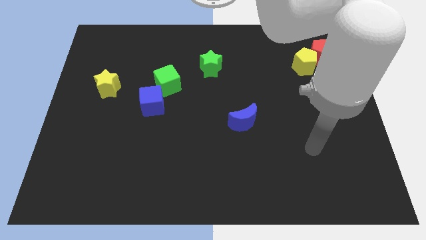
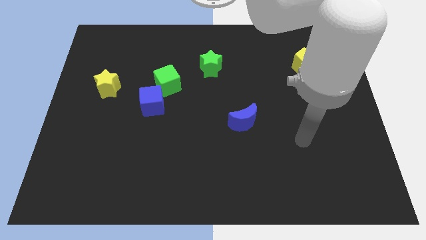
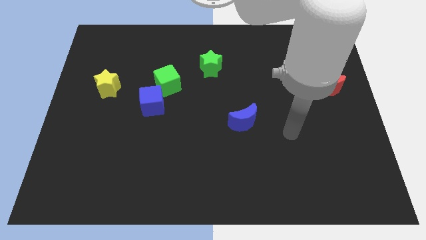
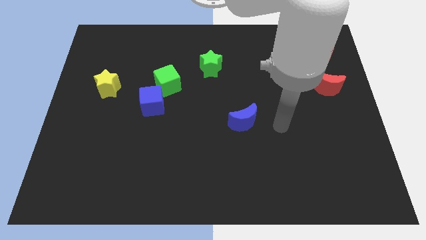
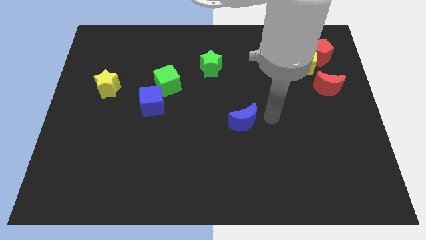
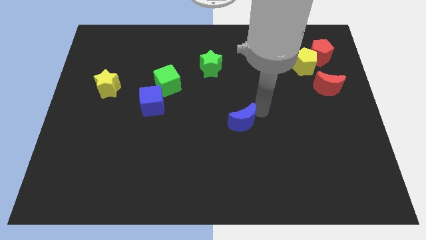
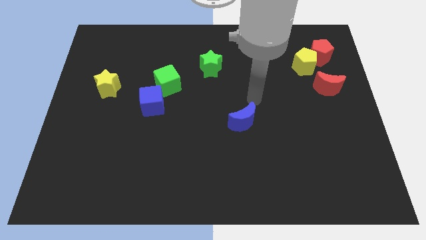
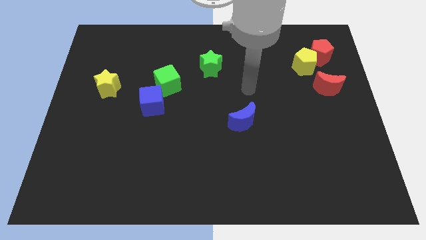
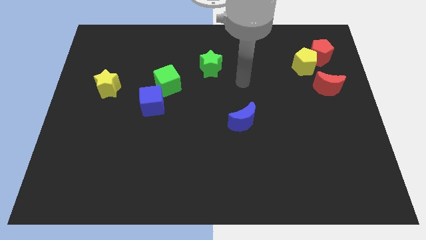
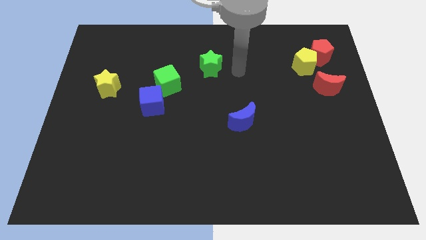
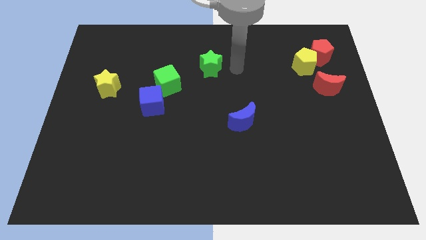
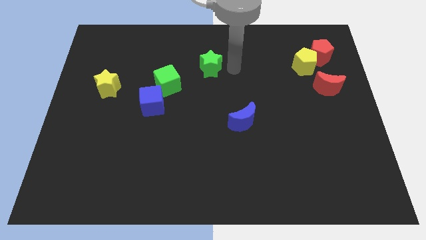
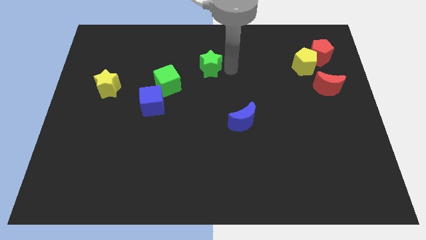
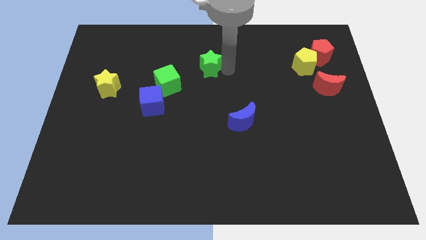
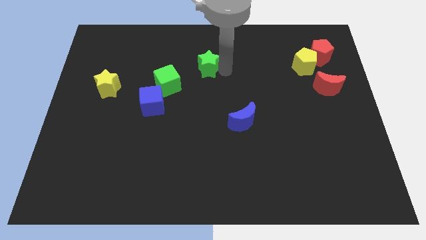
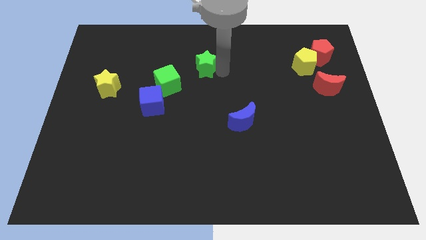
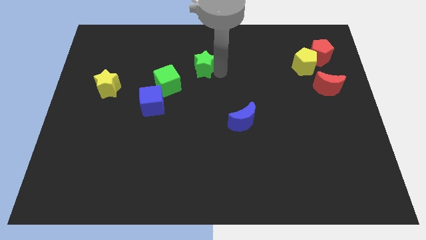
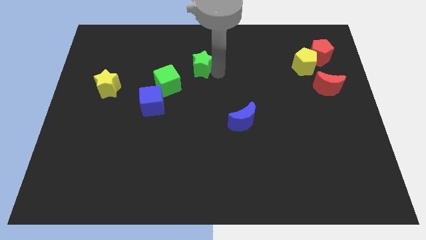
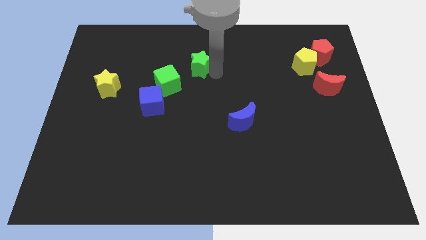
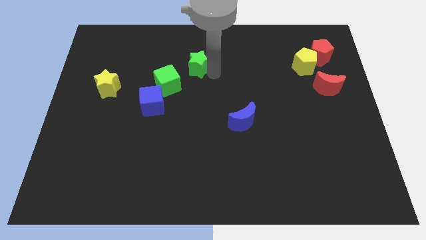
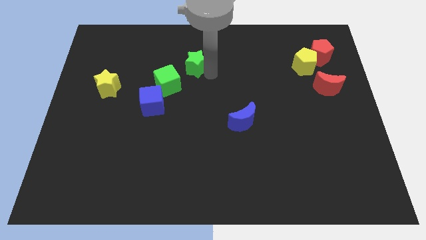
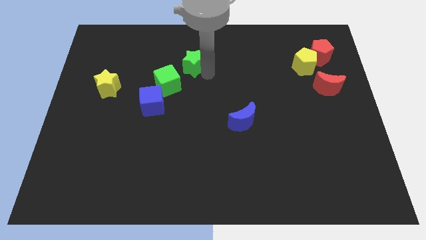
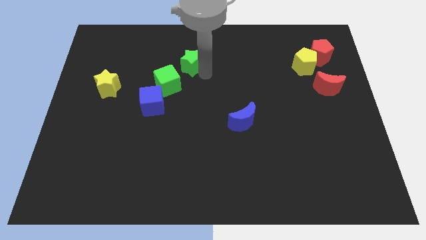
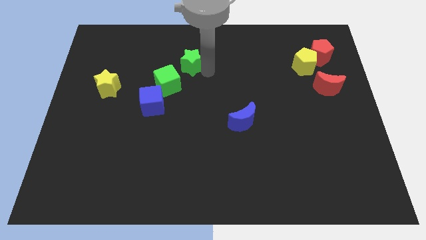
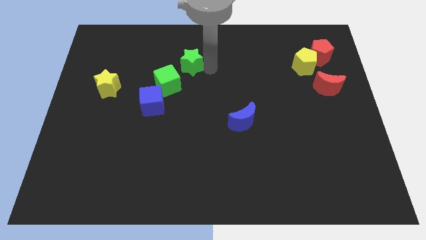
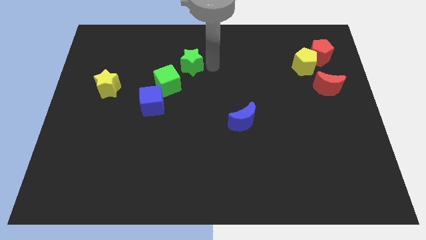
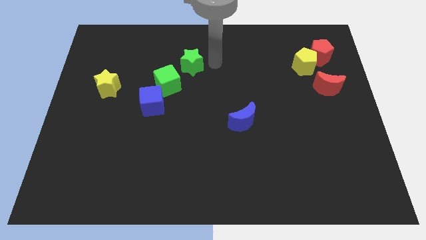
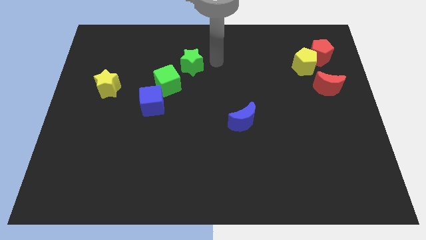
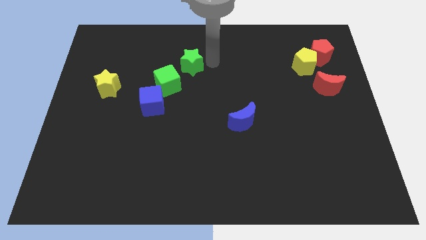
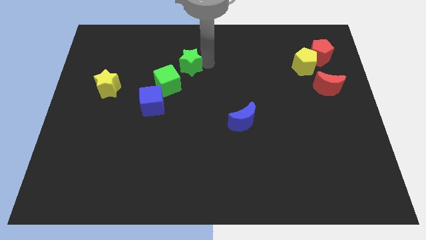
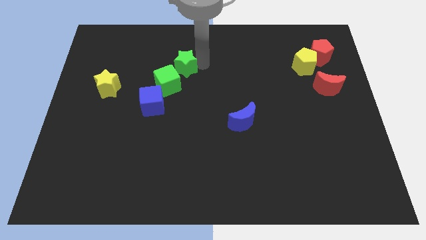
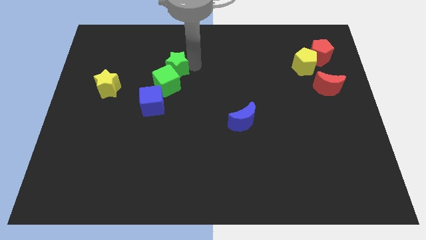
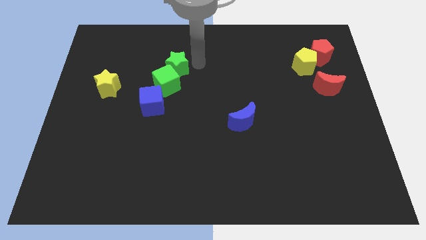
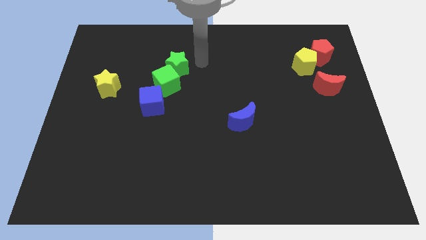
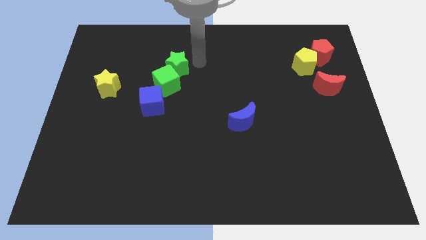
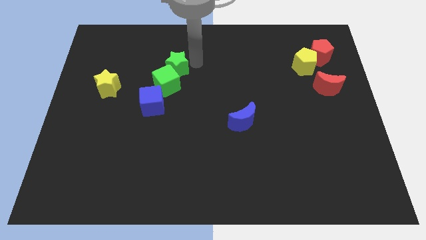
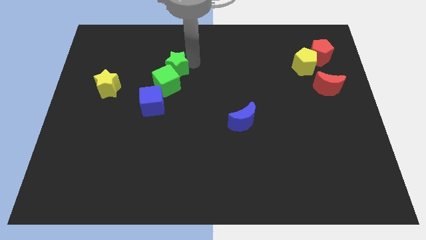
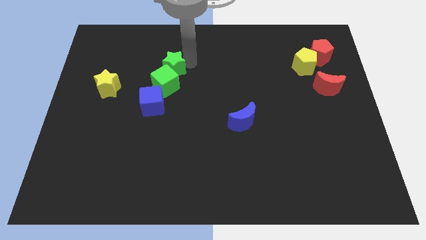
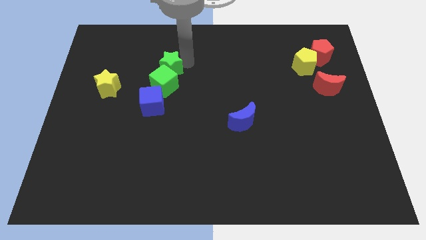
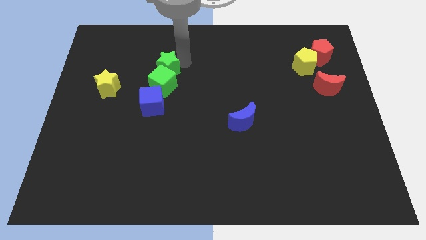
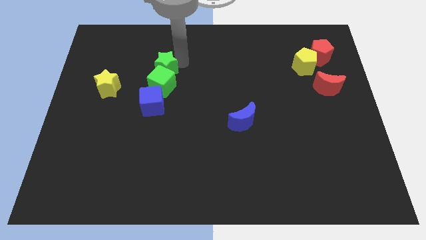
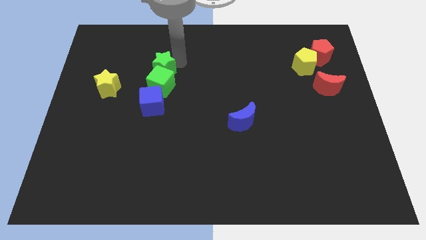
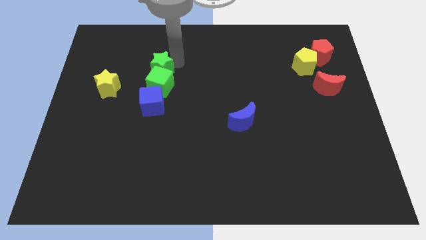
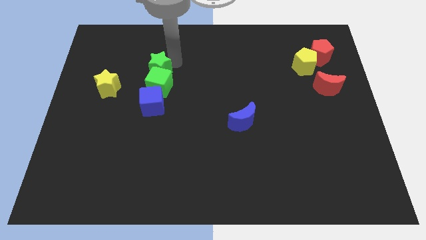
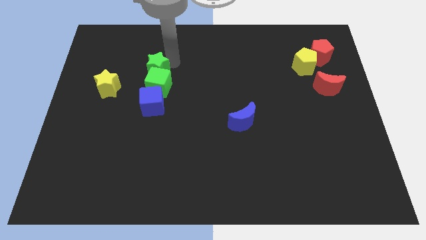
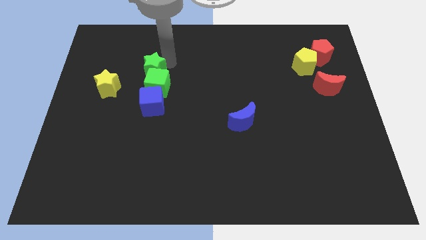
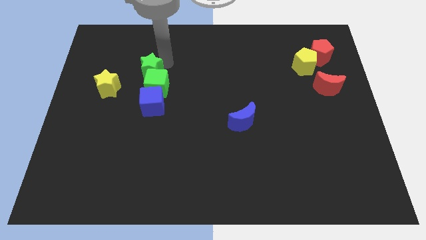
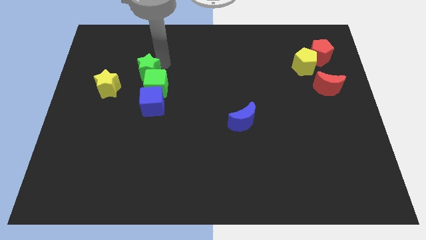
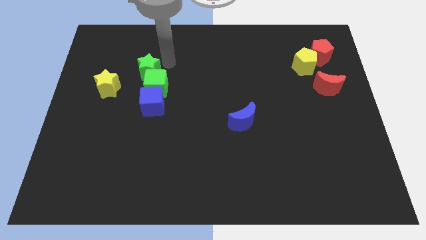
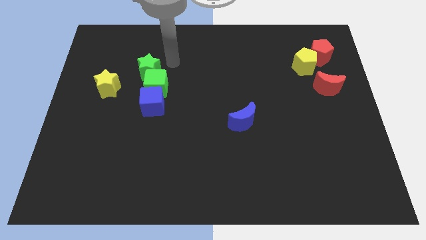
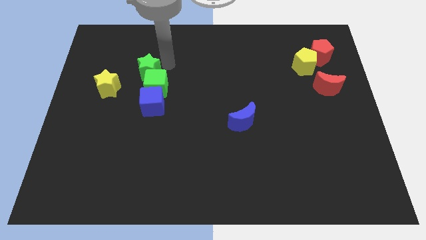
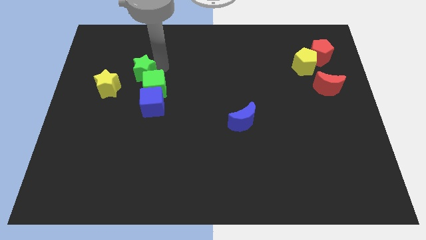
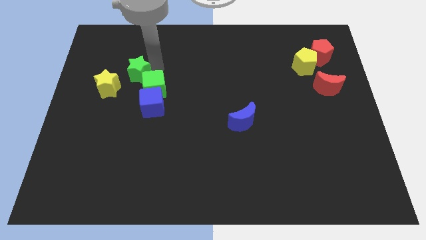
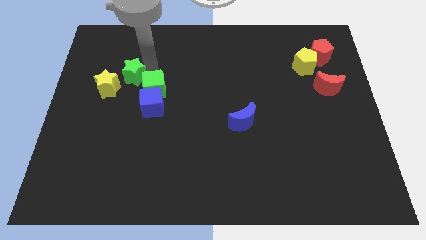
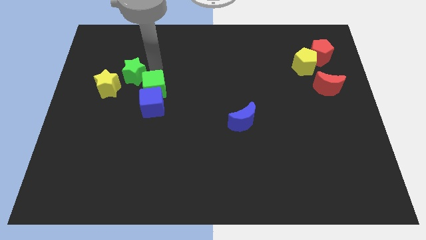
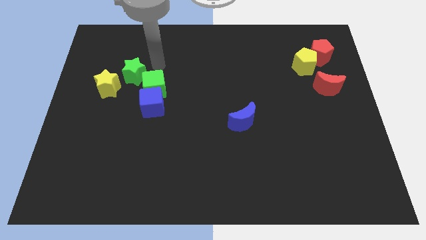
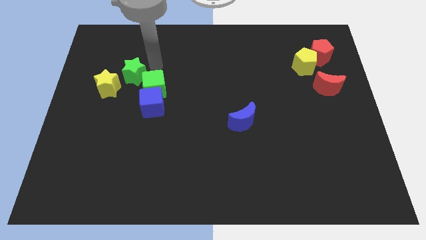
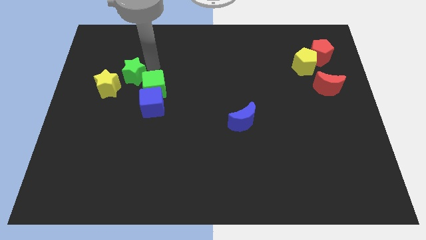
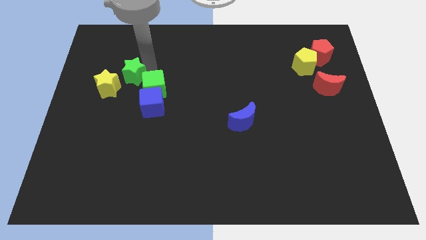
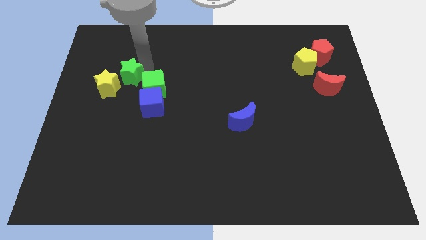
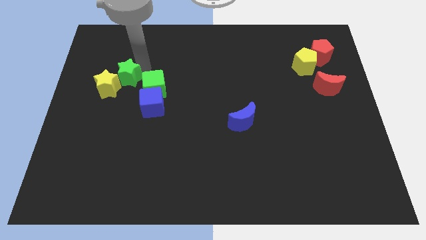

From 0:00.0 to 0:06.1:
slide the green star to the yellow star

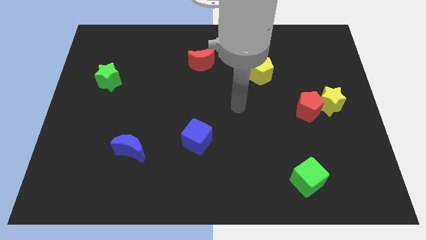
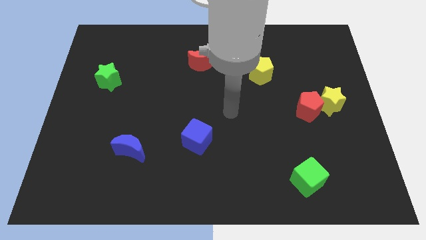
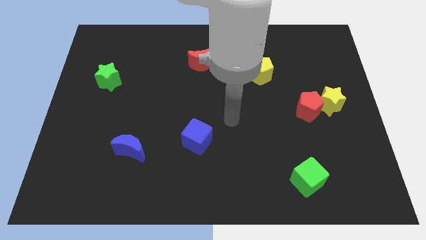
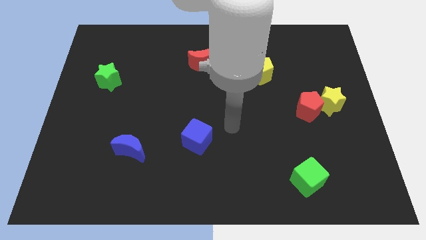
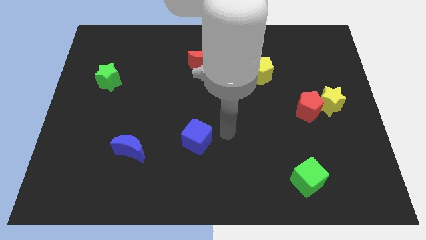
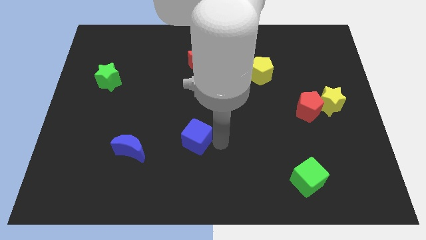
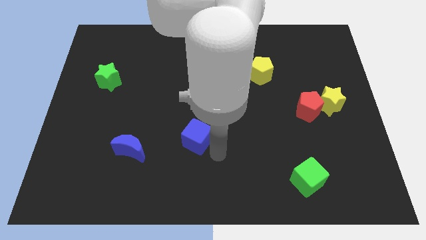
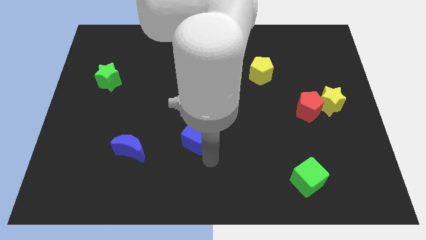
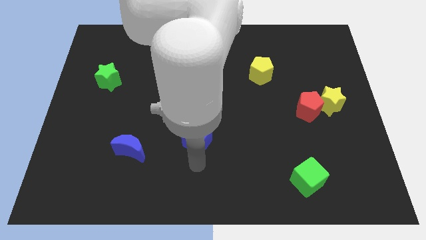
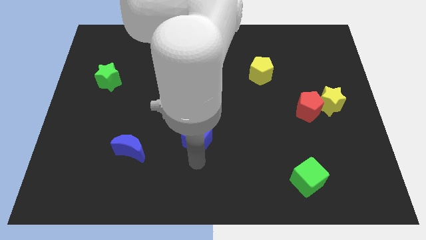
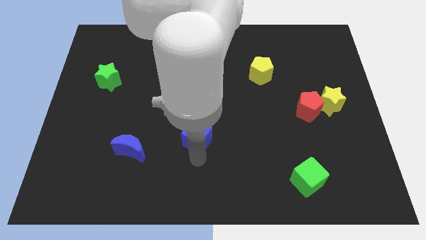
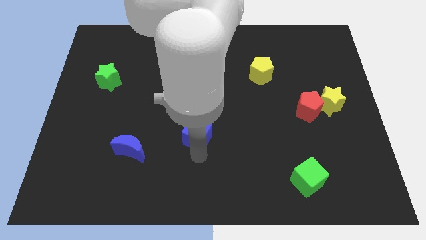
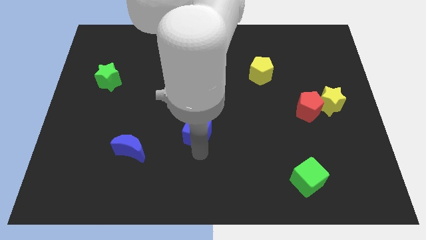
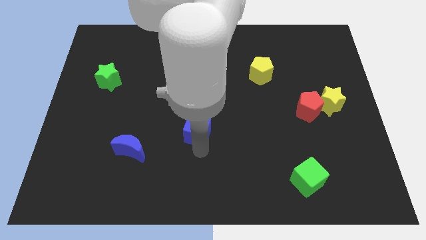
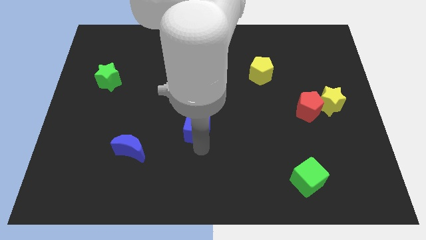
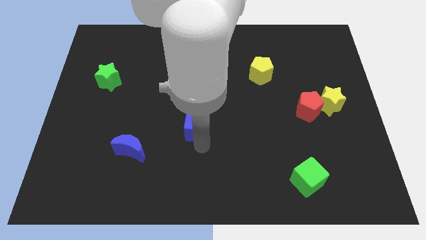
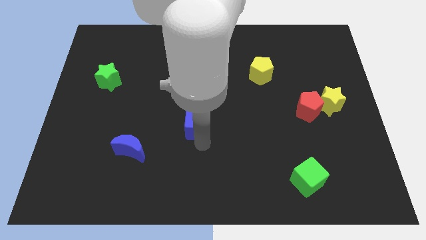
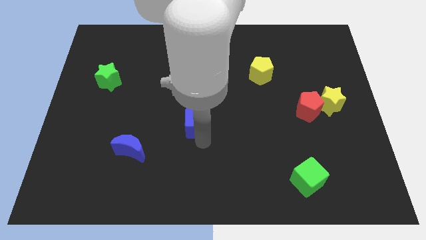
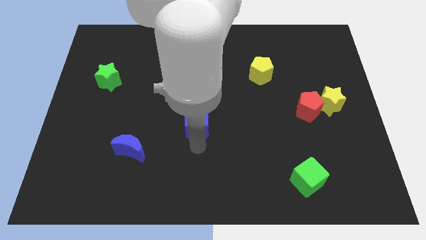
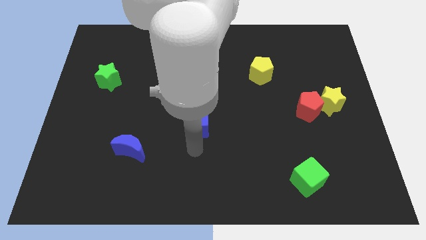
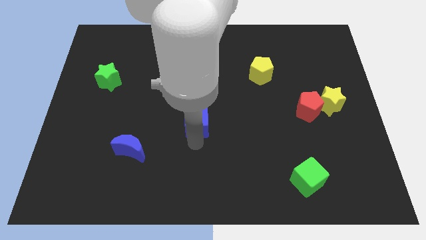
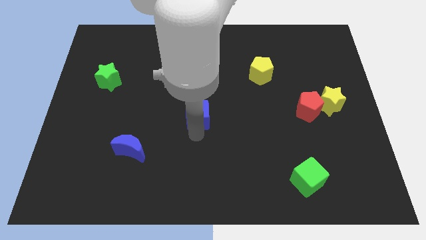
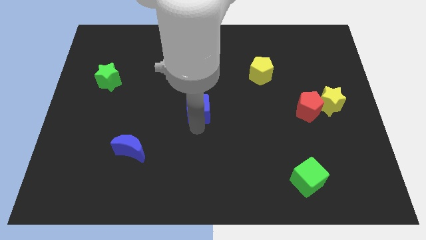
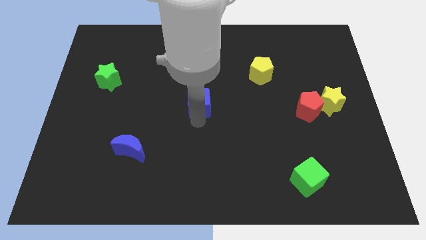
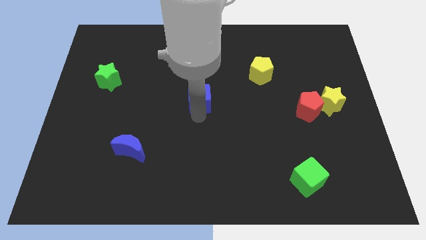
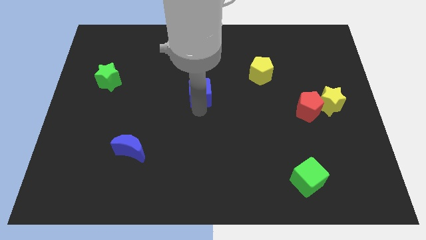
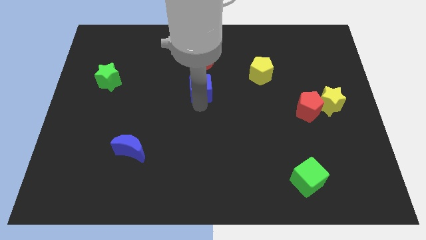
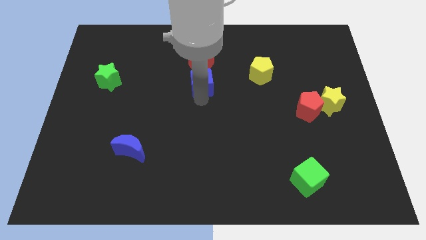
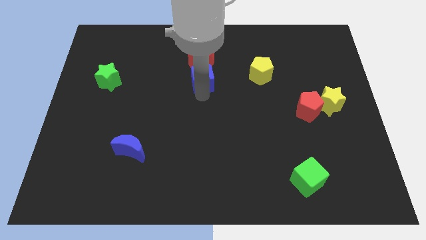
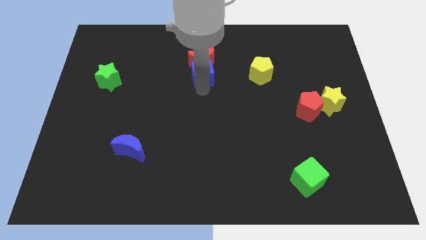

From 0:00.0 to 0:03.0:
move the blue cube to the red moon
